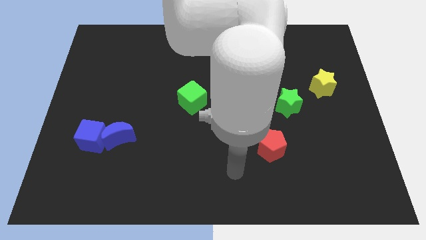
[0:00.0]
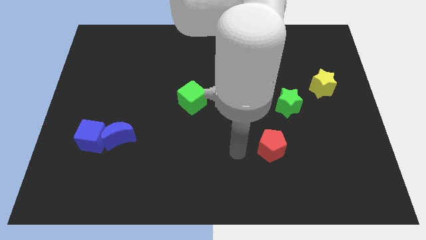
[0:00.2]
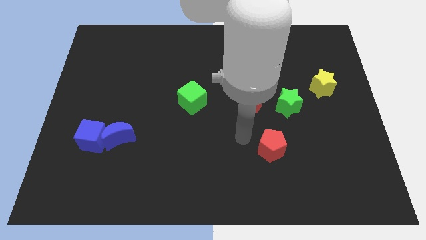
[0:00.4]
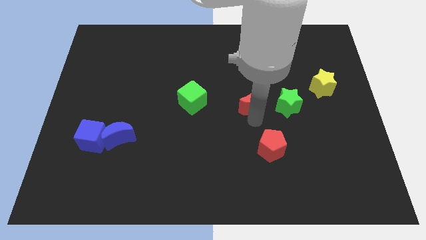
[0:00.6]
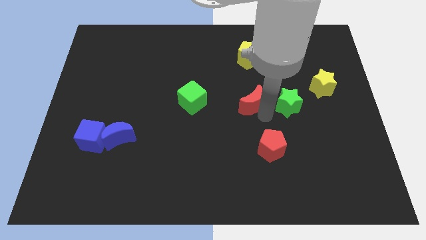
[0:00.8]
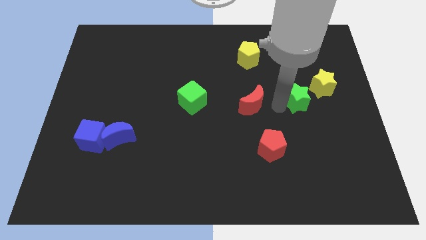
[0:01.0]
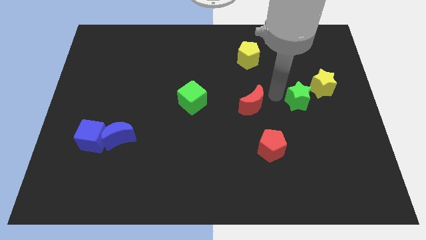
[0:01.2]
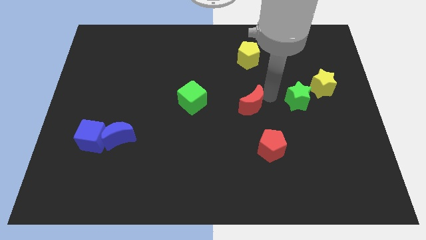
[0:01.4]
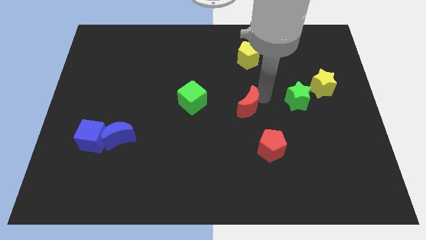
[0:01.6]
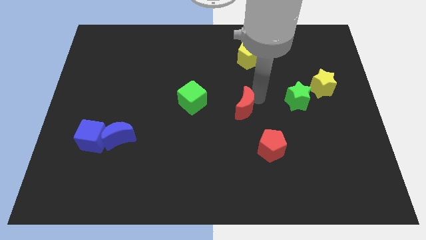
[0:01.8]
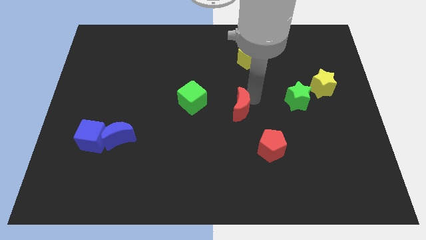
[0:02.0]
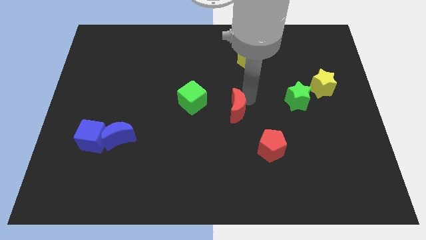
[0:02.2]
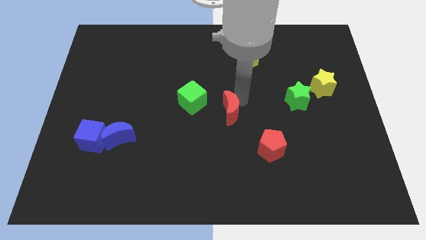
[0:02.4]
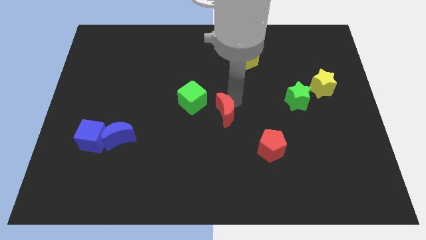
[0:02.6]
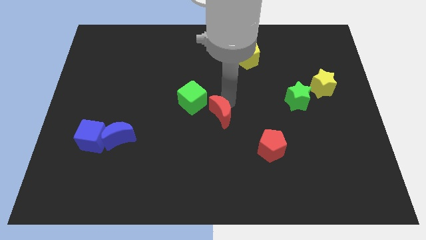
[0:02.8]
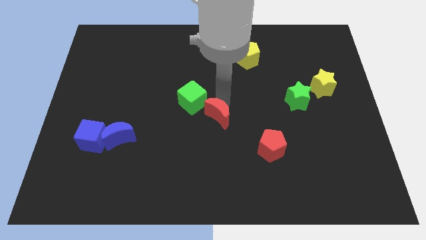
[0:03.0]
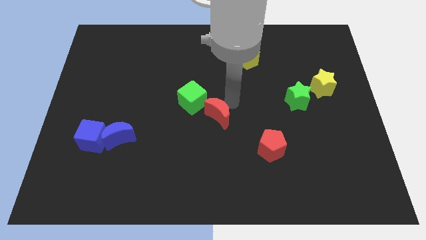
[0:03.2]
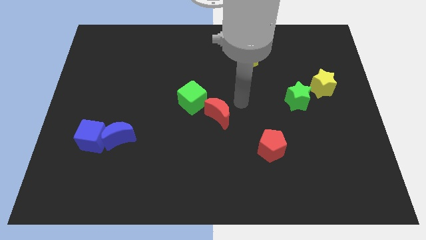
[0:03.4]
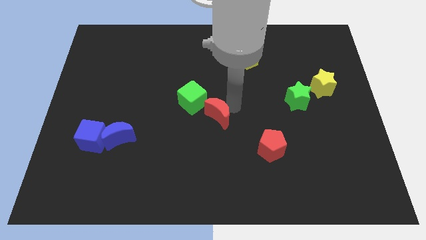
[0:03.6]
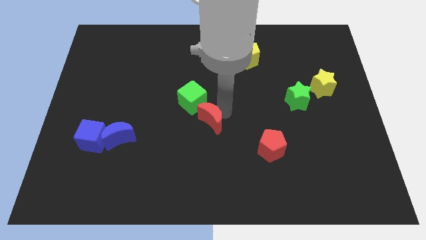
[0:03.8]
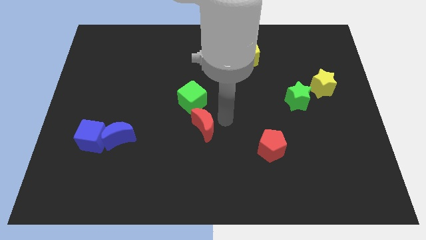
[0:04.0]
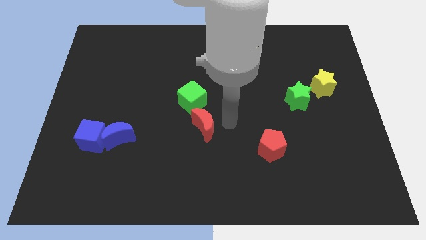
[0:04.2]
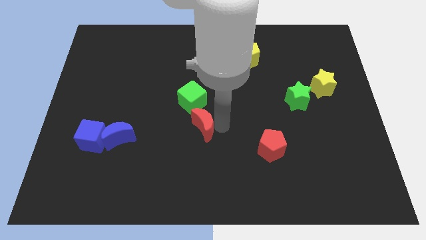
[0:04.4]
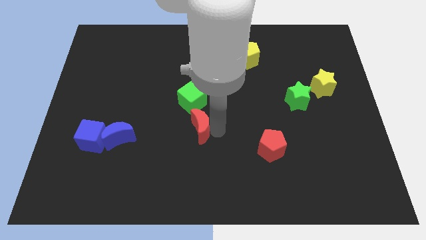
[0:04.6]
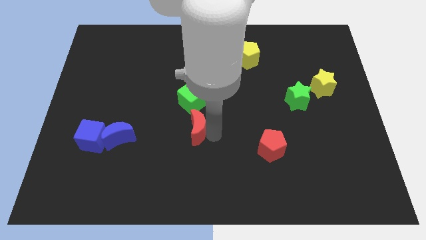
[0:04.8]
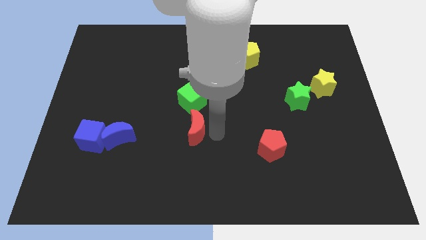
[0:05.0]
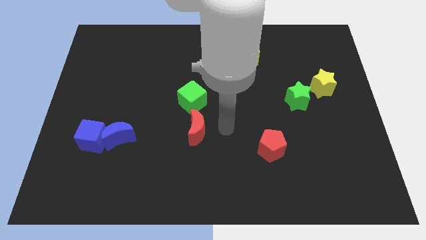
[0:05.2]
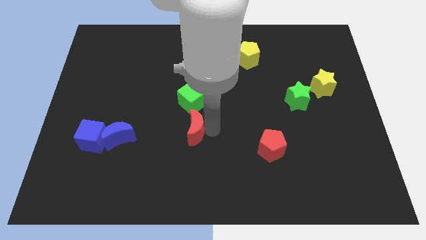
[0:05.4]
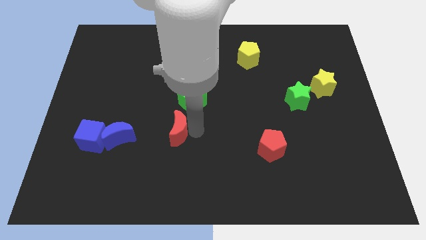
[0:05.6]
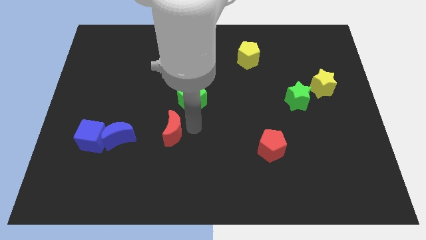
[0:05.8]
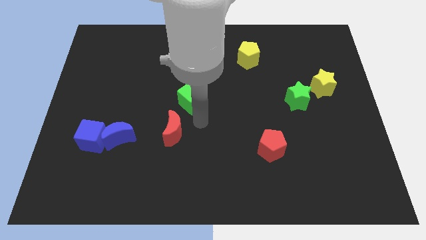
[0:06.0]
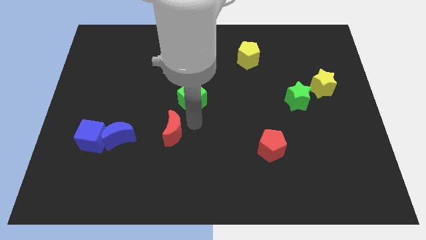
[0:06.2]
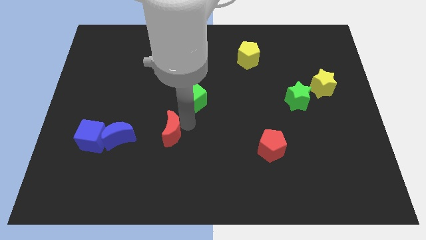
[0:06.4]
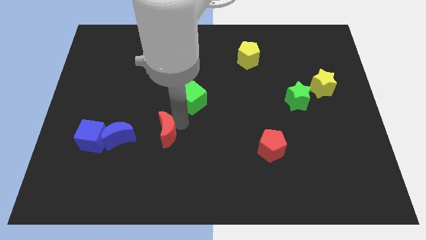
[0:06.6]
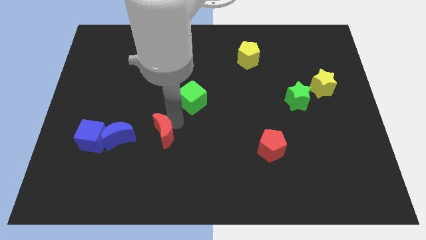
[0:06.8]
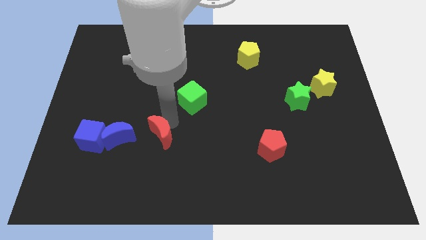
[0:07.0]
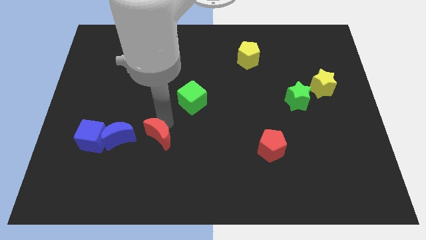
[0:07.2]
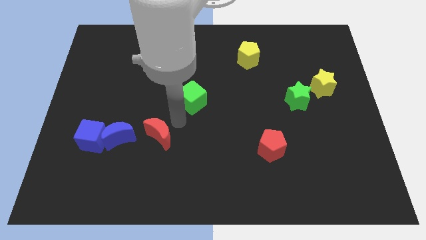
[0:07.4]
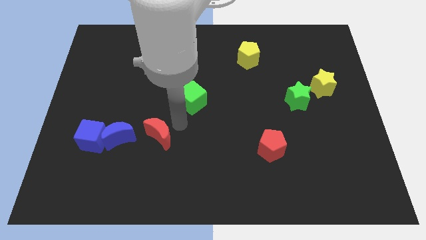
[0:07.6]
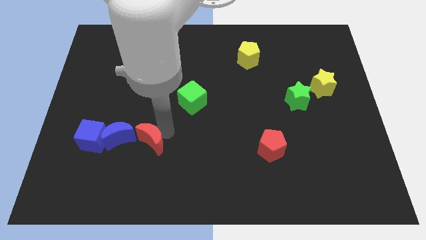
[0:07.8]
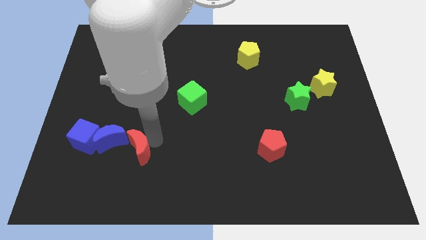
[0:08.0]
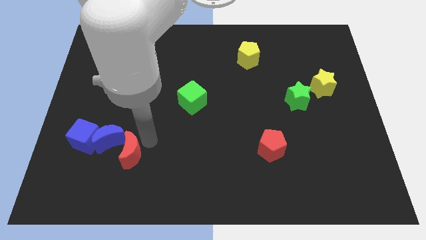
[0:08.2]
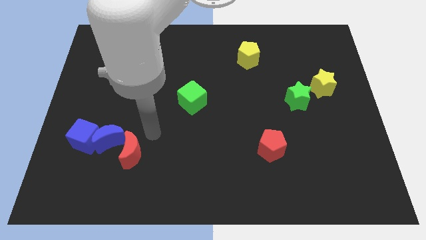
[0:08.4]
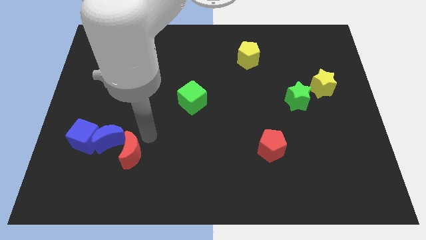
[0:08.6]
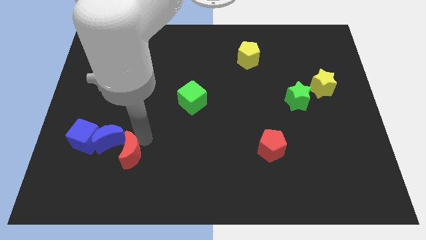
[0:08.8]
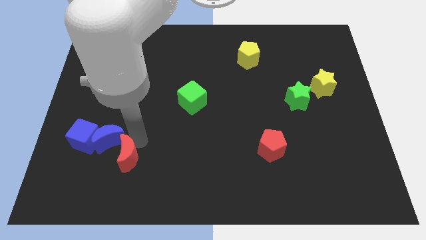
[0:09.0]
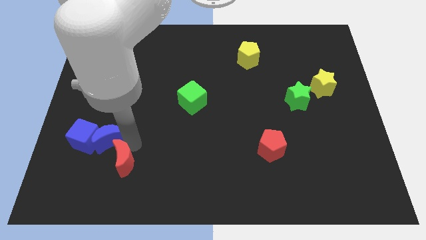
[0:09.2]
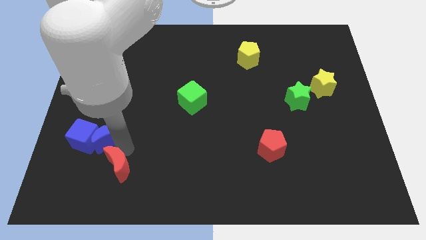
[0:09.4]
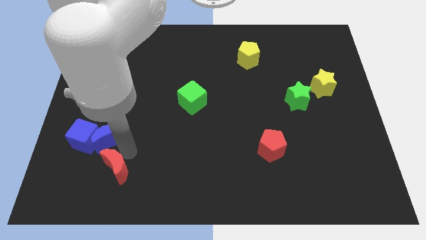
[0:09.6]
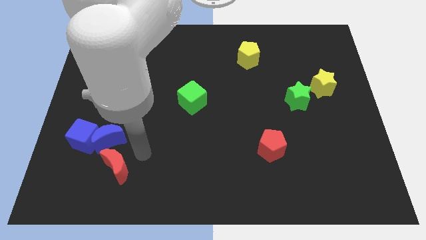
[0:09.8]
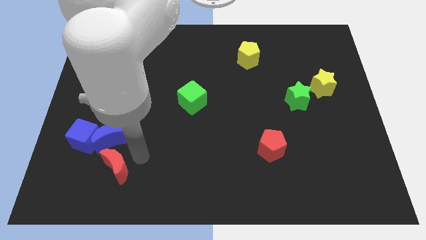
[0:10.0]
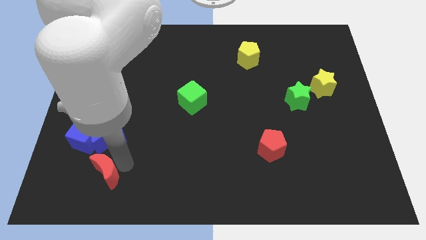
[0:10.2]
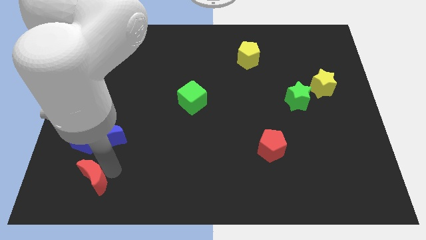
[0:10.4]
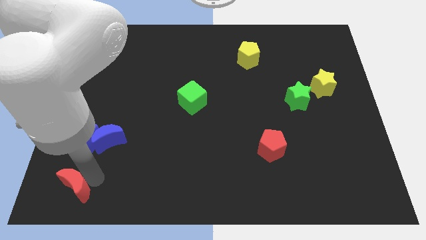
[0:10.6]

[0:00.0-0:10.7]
put the red moon to the lower left corner

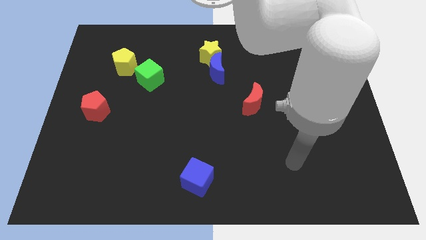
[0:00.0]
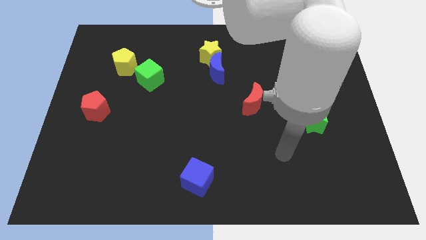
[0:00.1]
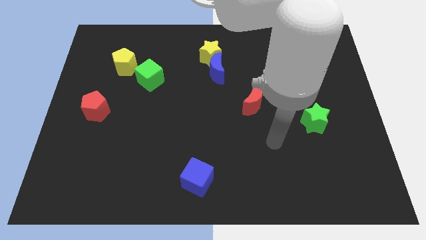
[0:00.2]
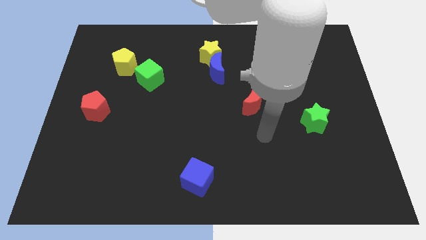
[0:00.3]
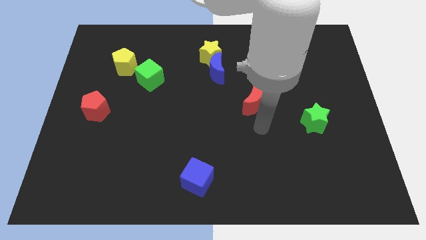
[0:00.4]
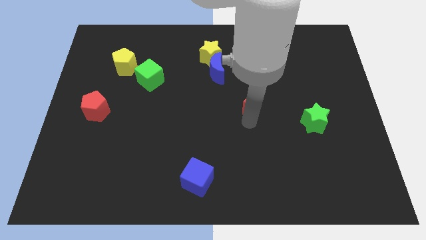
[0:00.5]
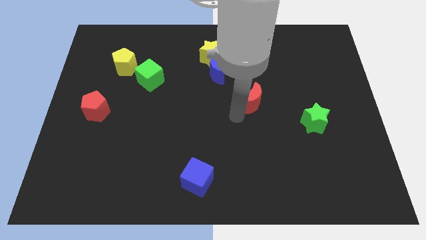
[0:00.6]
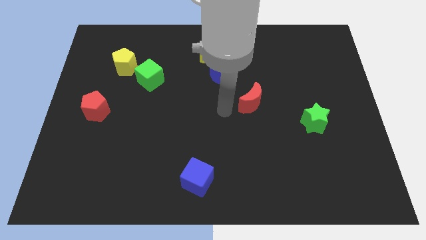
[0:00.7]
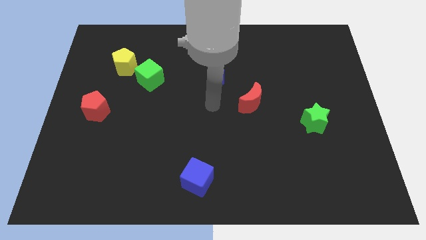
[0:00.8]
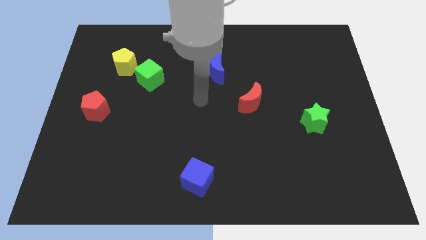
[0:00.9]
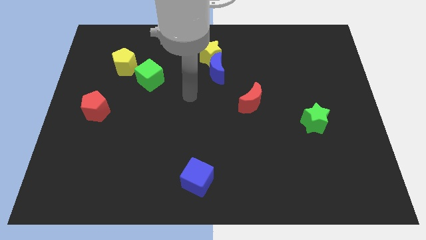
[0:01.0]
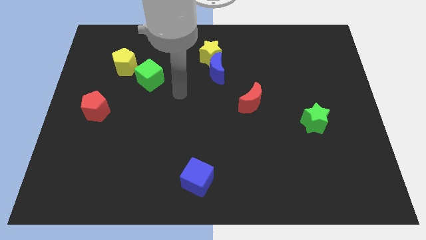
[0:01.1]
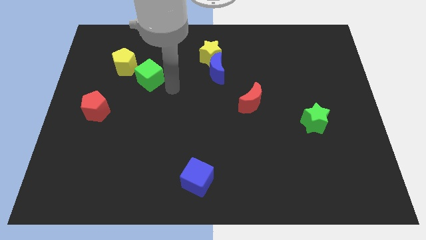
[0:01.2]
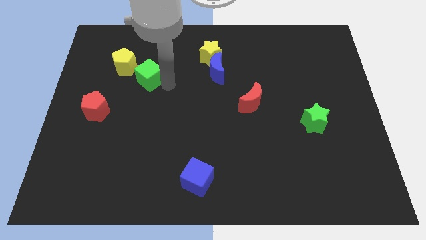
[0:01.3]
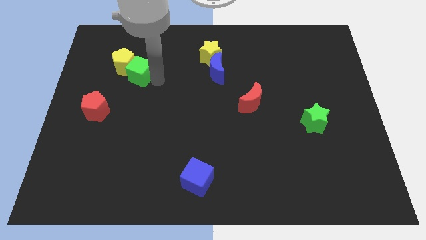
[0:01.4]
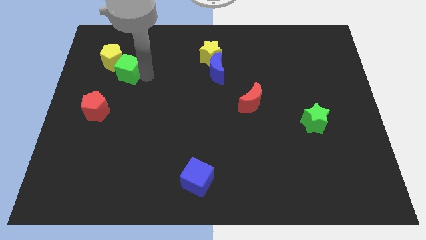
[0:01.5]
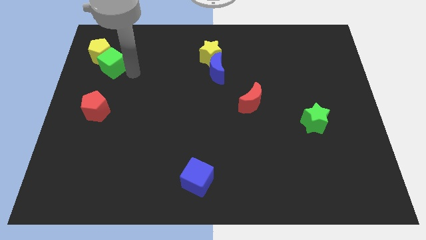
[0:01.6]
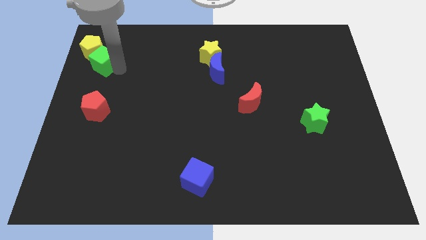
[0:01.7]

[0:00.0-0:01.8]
slide the yellow pentagon to the top left
